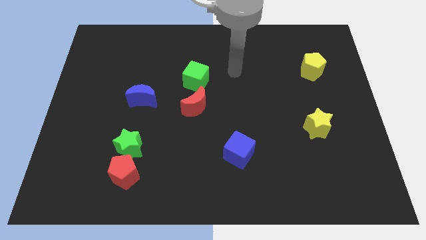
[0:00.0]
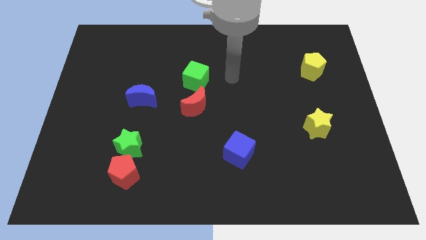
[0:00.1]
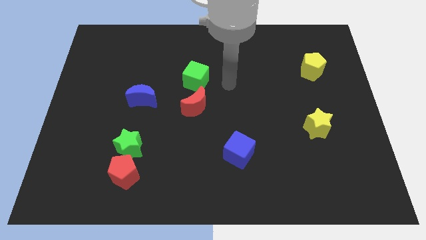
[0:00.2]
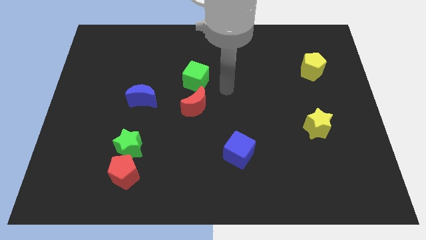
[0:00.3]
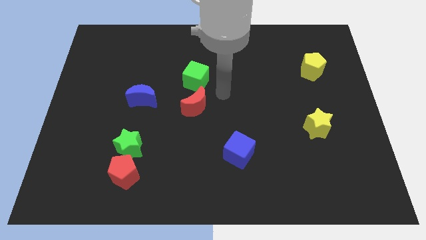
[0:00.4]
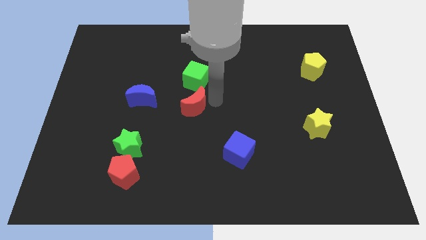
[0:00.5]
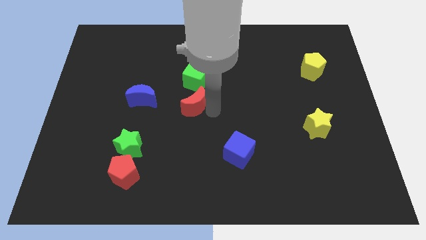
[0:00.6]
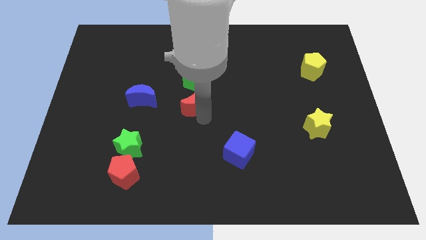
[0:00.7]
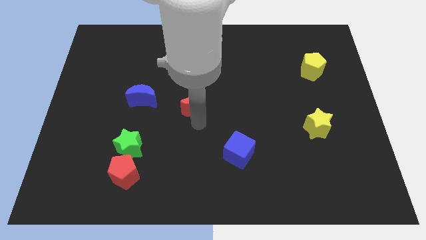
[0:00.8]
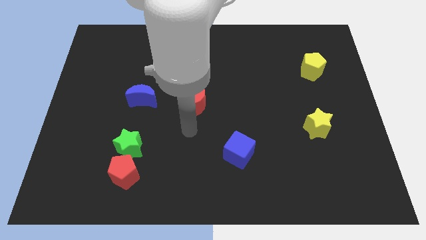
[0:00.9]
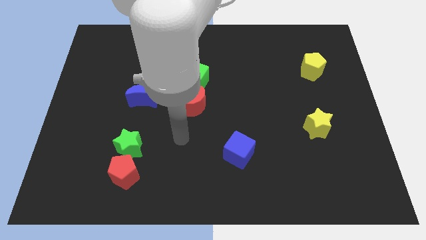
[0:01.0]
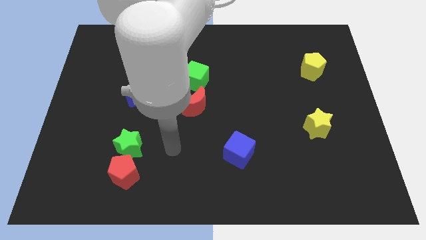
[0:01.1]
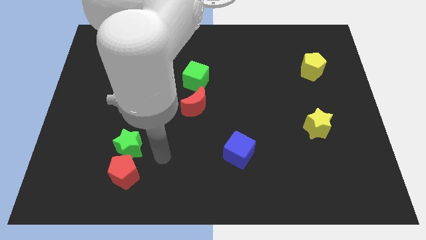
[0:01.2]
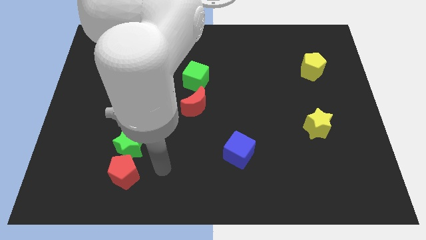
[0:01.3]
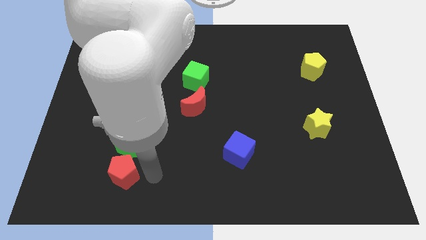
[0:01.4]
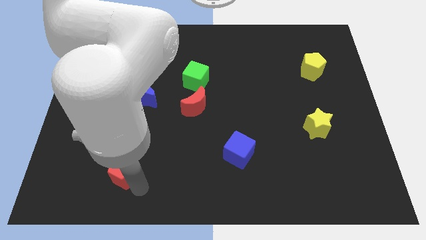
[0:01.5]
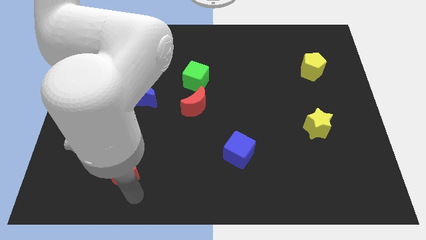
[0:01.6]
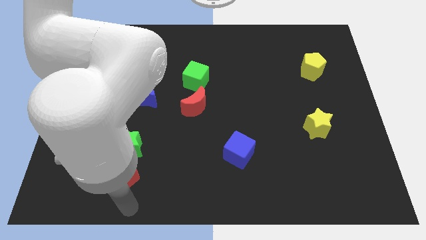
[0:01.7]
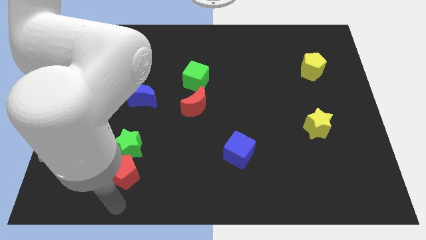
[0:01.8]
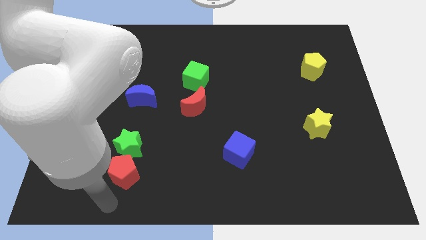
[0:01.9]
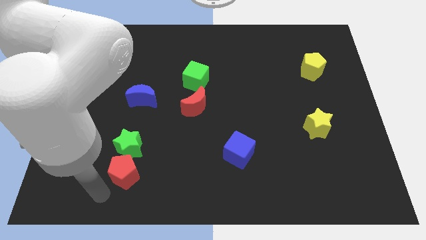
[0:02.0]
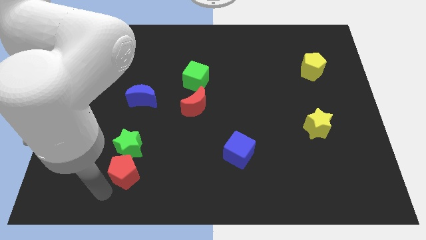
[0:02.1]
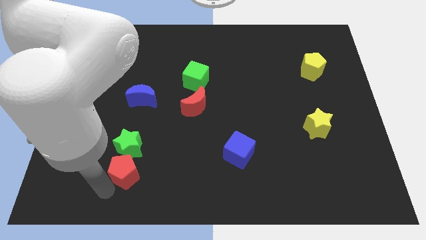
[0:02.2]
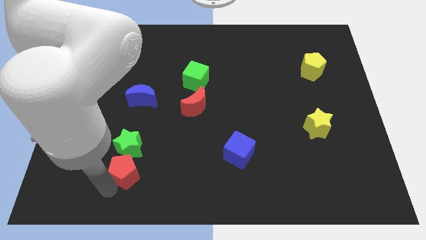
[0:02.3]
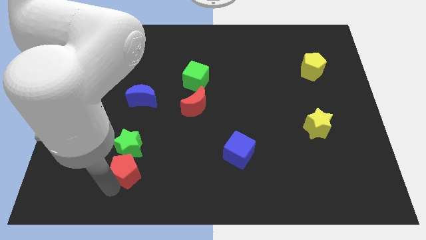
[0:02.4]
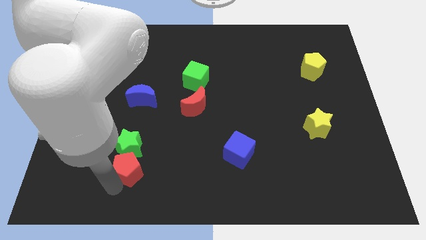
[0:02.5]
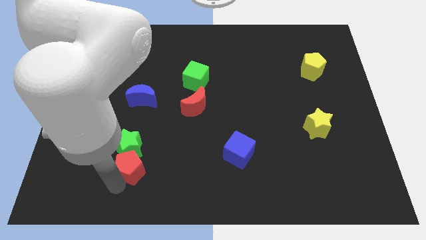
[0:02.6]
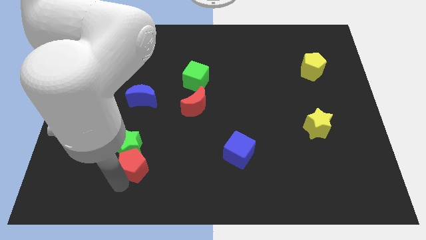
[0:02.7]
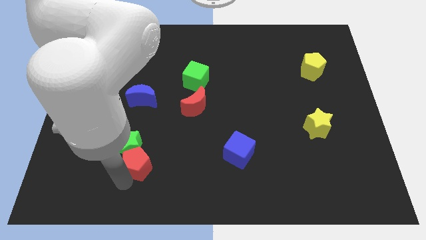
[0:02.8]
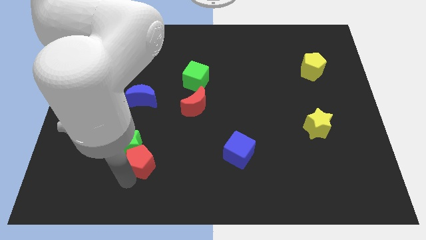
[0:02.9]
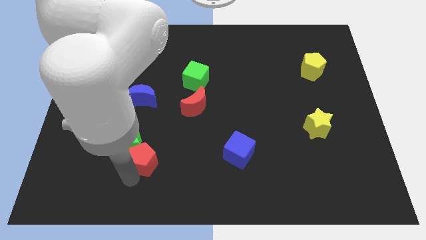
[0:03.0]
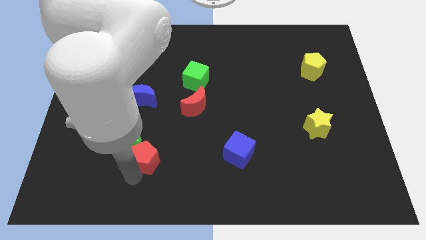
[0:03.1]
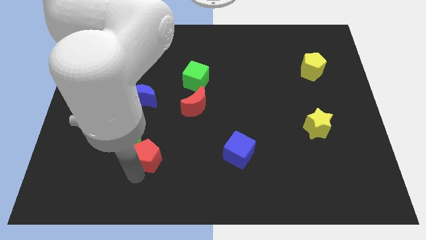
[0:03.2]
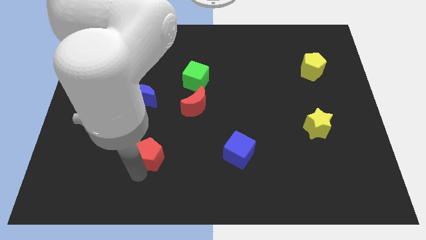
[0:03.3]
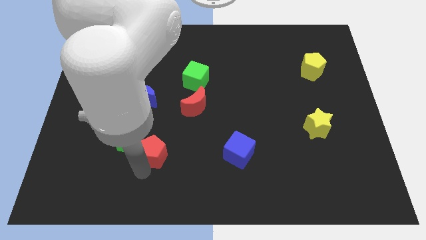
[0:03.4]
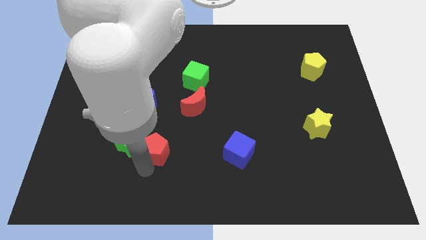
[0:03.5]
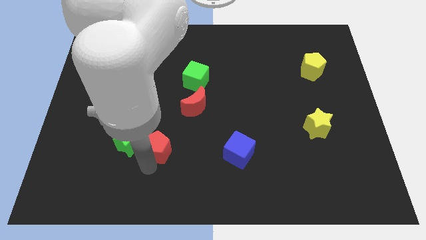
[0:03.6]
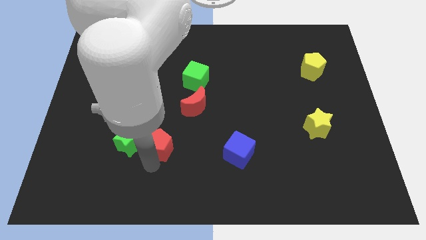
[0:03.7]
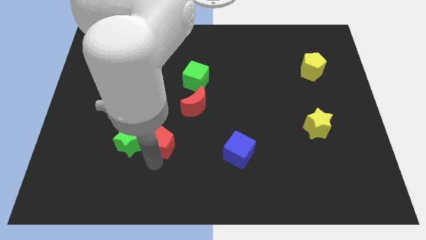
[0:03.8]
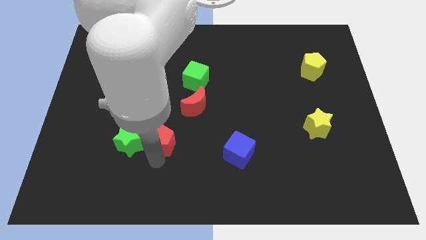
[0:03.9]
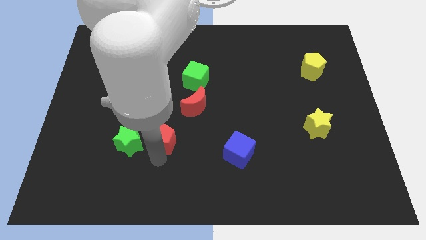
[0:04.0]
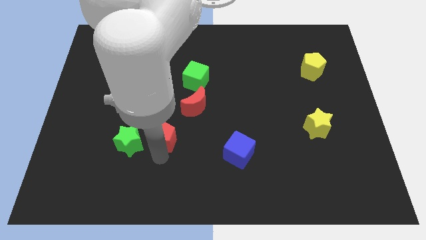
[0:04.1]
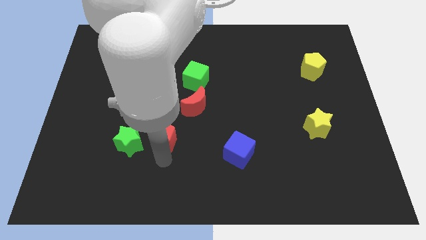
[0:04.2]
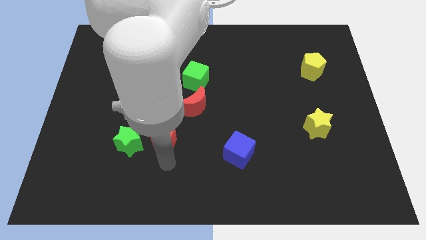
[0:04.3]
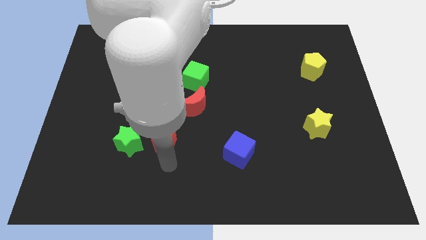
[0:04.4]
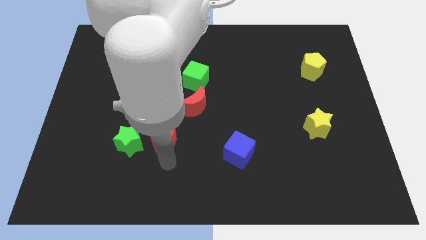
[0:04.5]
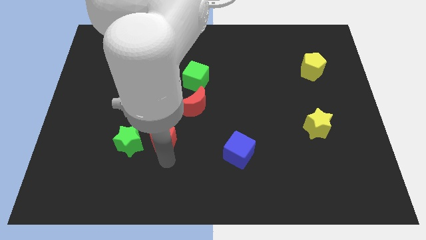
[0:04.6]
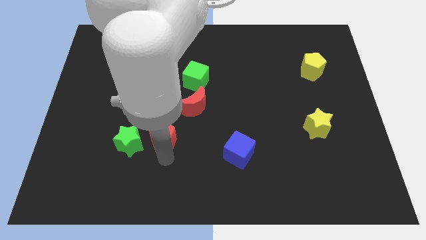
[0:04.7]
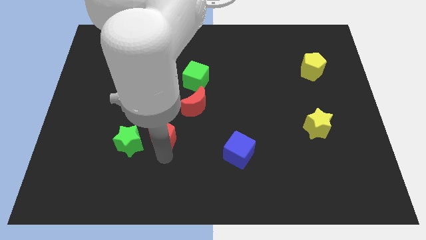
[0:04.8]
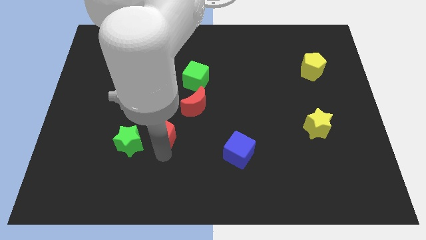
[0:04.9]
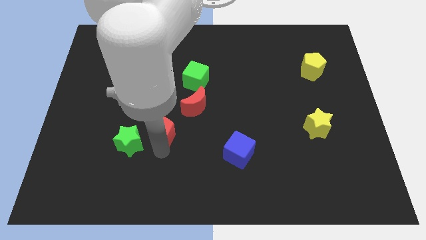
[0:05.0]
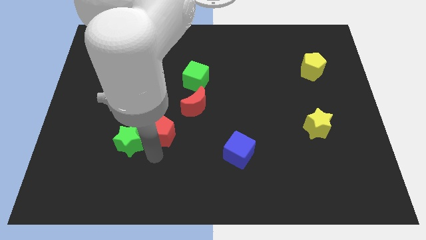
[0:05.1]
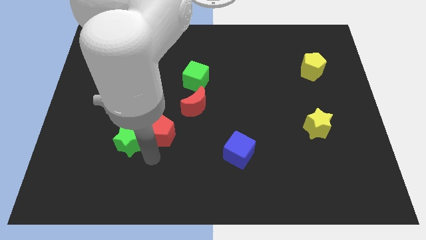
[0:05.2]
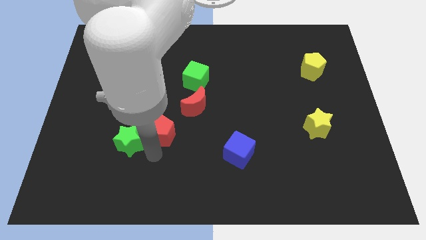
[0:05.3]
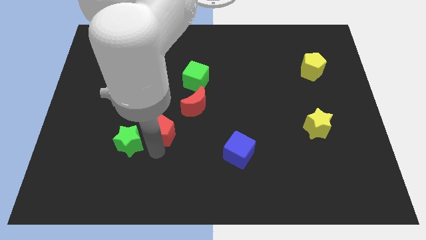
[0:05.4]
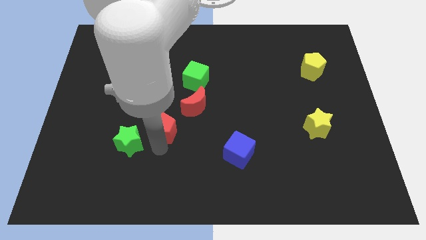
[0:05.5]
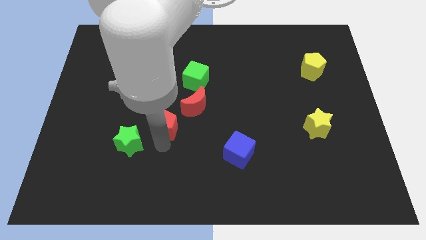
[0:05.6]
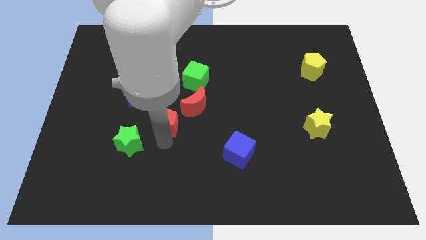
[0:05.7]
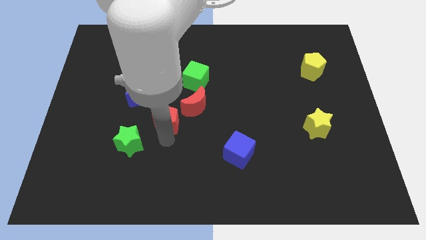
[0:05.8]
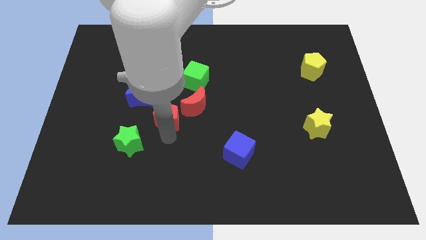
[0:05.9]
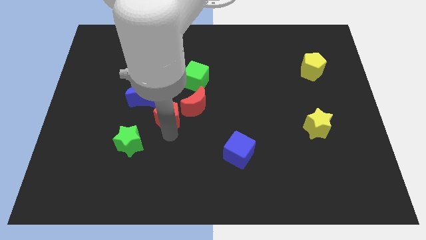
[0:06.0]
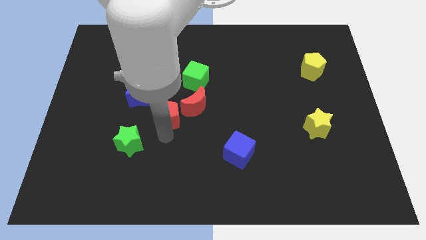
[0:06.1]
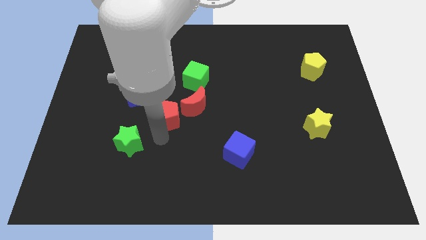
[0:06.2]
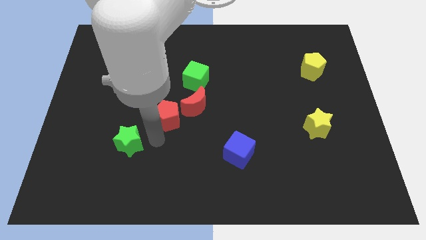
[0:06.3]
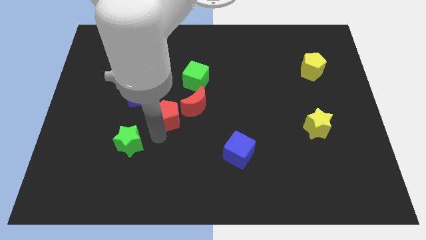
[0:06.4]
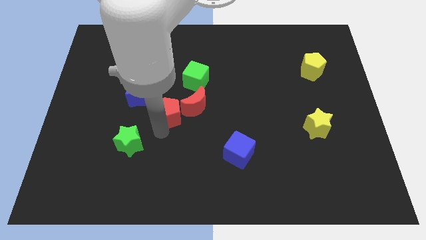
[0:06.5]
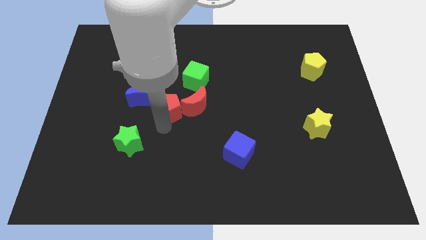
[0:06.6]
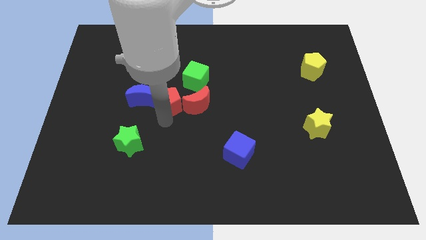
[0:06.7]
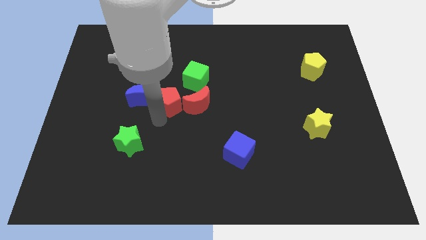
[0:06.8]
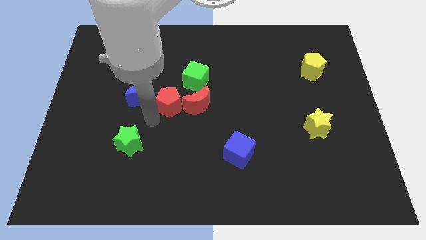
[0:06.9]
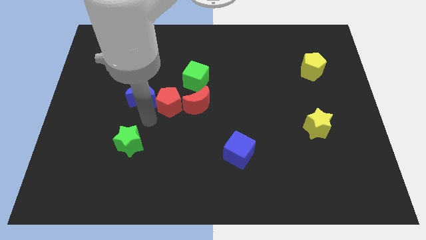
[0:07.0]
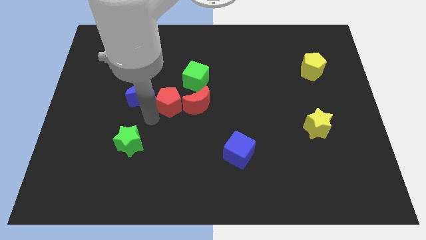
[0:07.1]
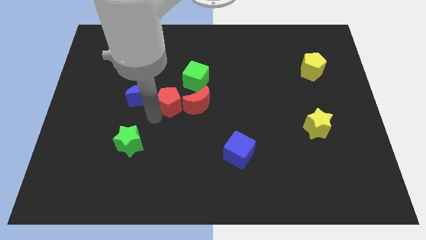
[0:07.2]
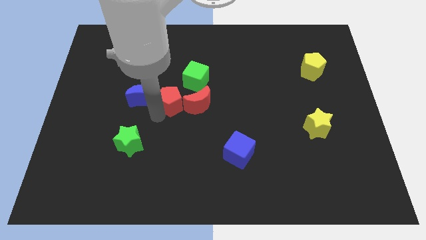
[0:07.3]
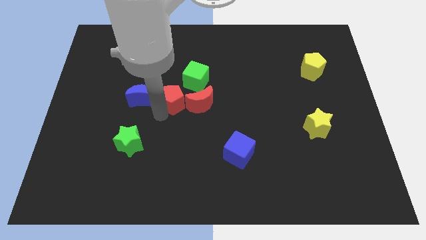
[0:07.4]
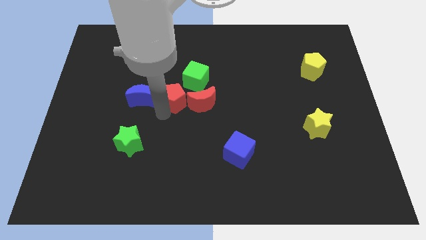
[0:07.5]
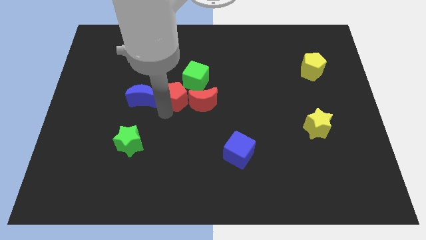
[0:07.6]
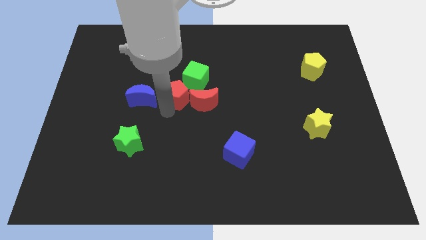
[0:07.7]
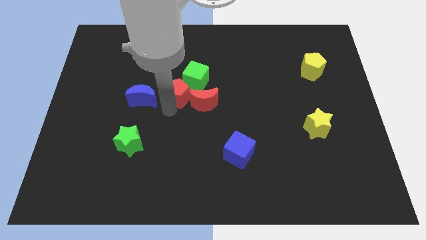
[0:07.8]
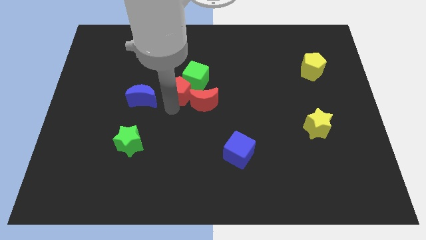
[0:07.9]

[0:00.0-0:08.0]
put the red pentagon to the green cube
